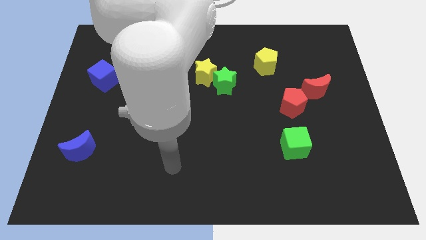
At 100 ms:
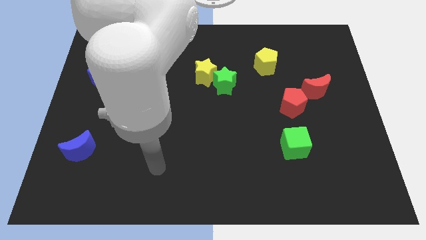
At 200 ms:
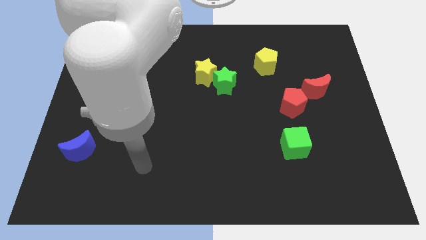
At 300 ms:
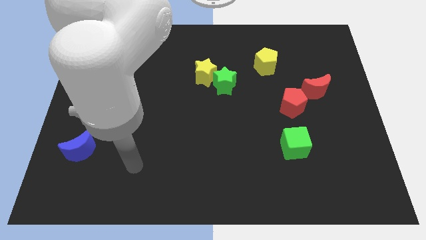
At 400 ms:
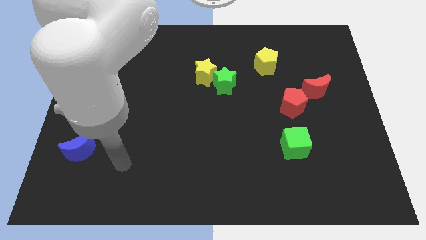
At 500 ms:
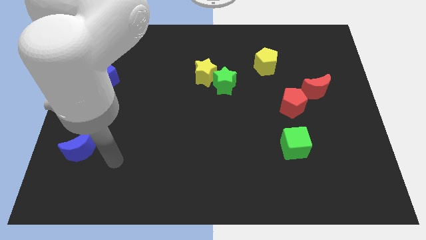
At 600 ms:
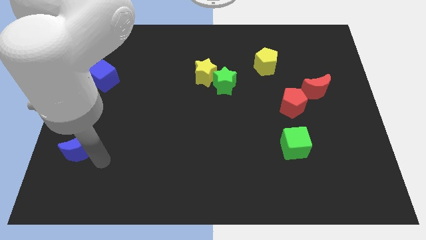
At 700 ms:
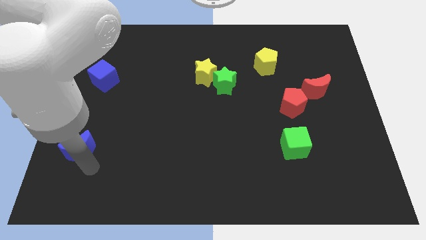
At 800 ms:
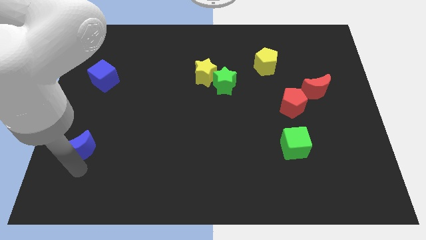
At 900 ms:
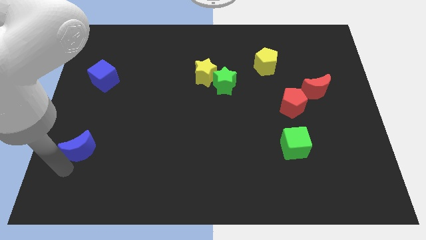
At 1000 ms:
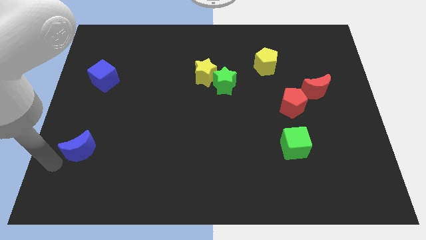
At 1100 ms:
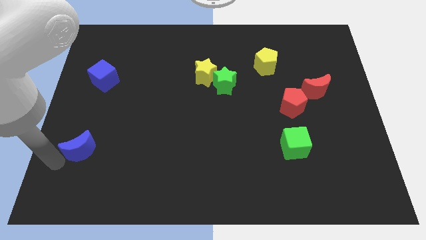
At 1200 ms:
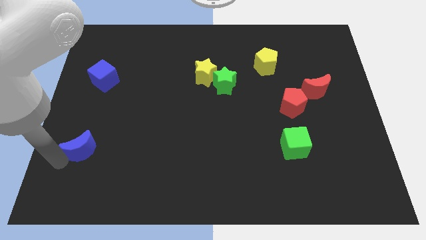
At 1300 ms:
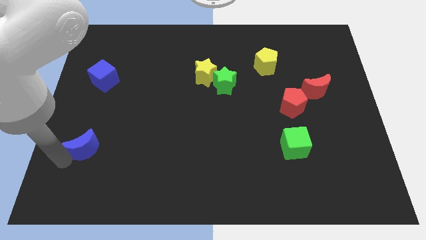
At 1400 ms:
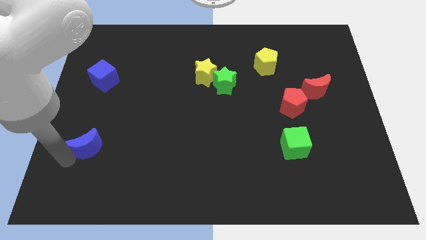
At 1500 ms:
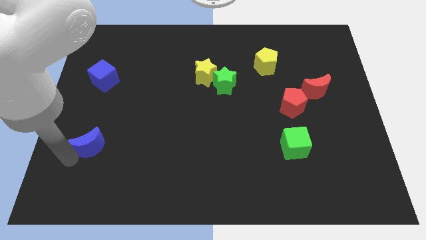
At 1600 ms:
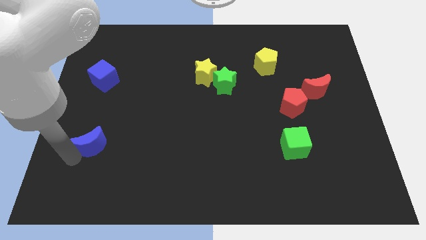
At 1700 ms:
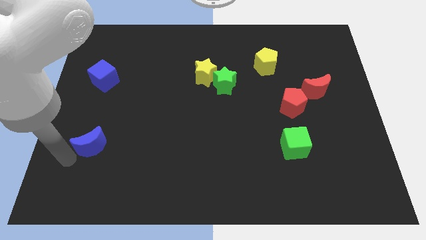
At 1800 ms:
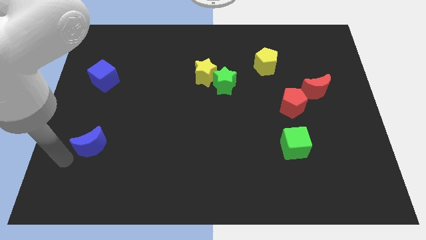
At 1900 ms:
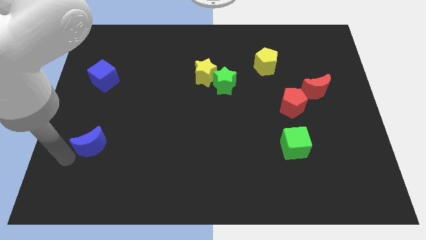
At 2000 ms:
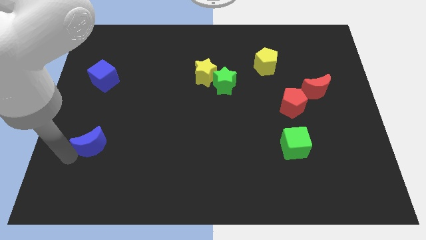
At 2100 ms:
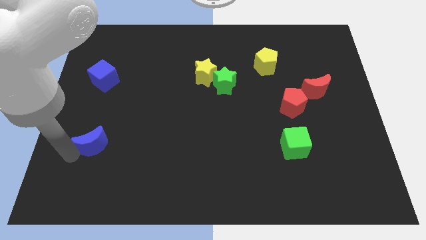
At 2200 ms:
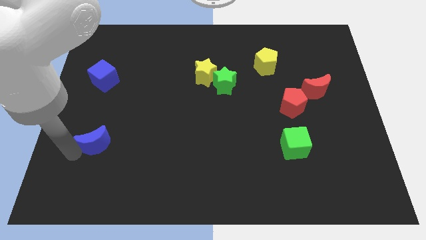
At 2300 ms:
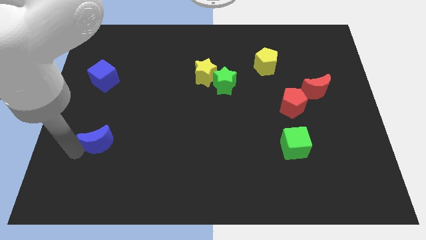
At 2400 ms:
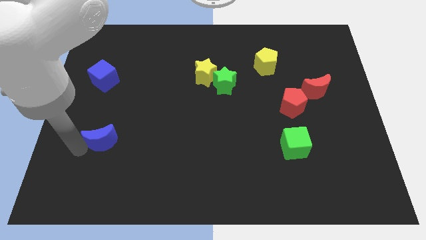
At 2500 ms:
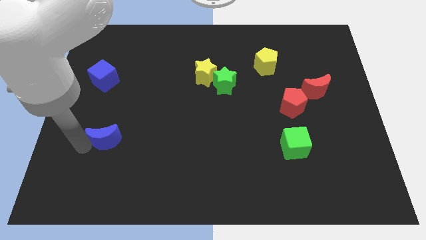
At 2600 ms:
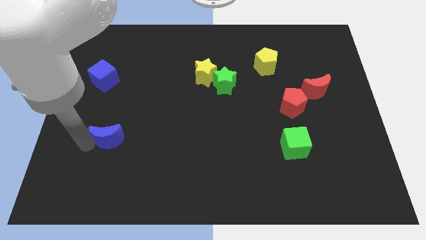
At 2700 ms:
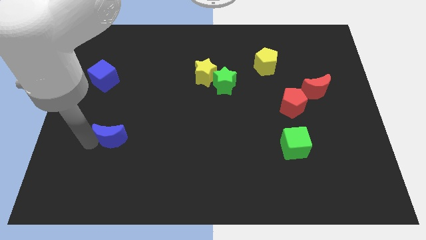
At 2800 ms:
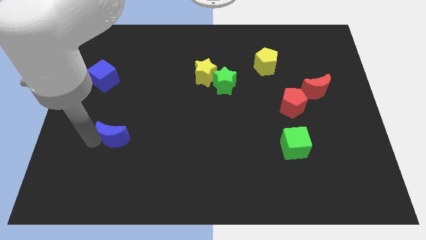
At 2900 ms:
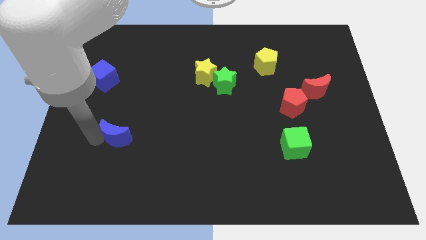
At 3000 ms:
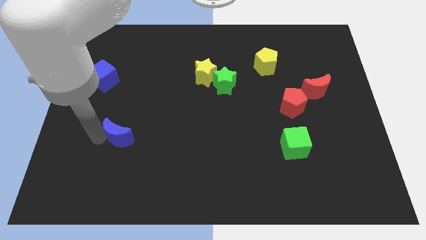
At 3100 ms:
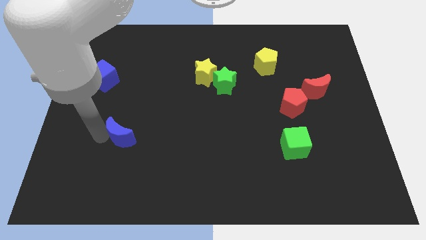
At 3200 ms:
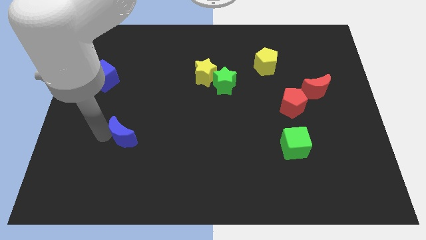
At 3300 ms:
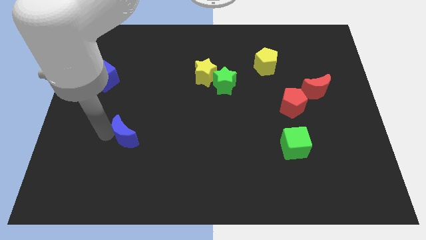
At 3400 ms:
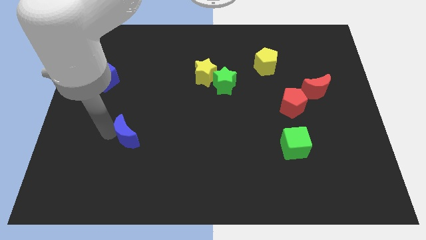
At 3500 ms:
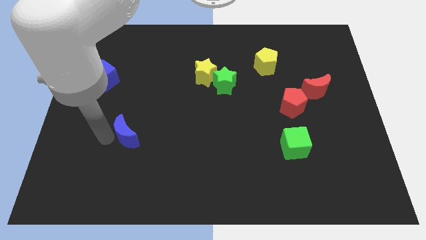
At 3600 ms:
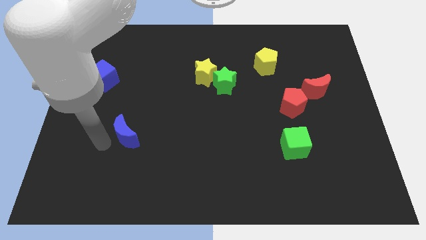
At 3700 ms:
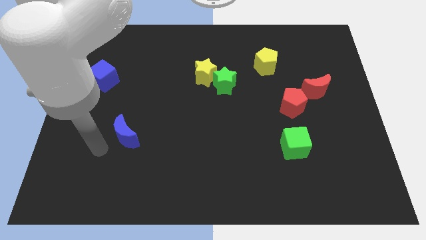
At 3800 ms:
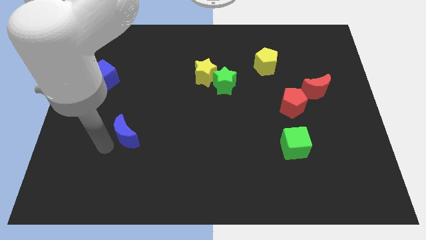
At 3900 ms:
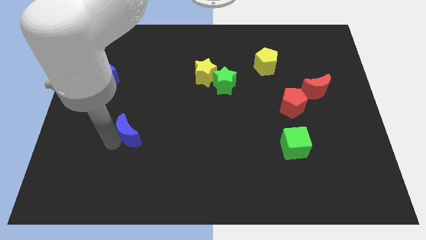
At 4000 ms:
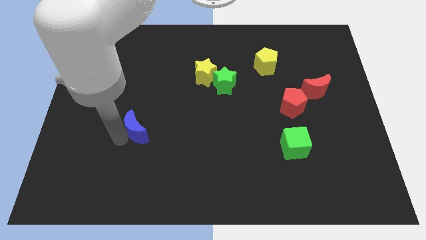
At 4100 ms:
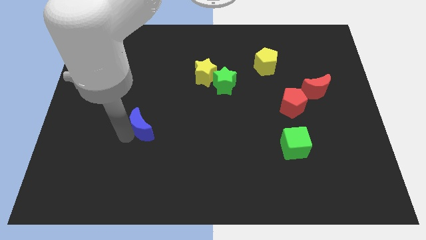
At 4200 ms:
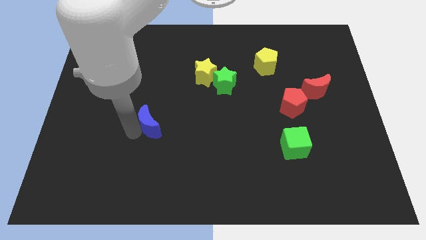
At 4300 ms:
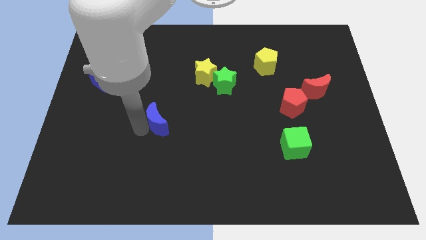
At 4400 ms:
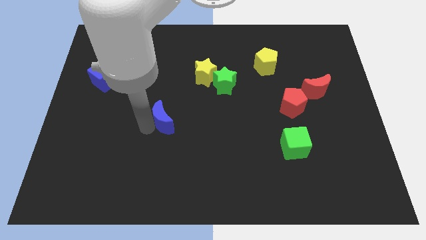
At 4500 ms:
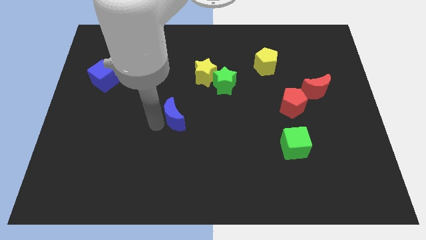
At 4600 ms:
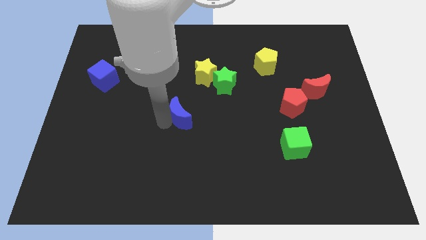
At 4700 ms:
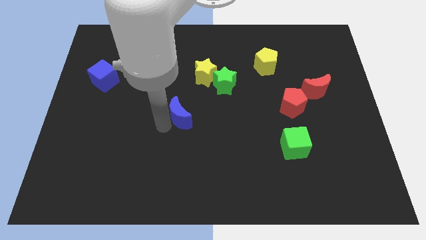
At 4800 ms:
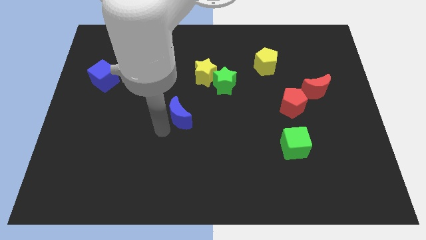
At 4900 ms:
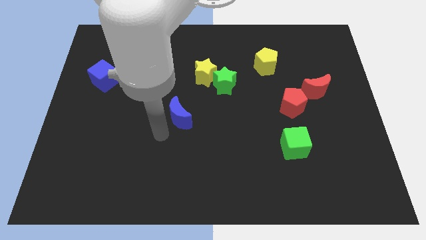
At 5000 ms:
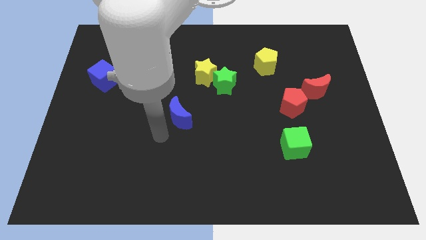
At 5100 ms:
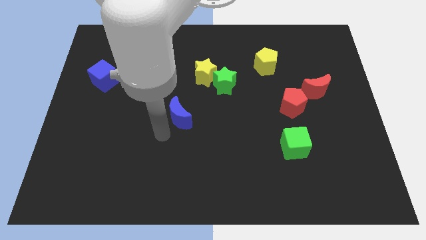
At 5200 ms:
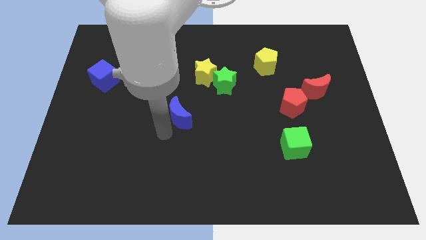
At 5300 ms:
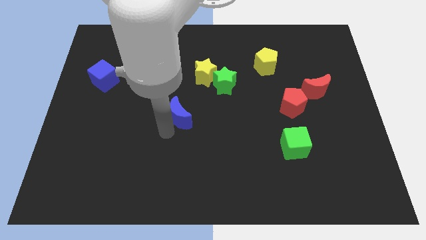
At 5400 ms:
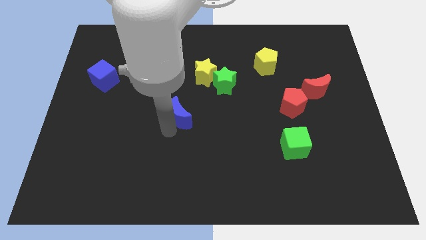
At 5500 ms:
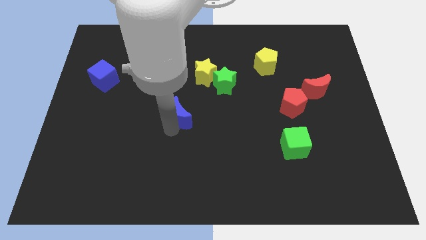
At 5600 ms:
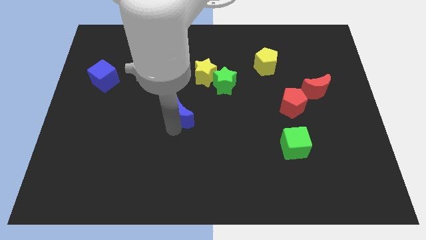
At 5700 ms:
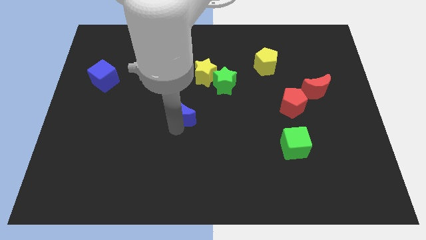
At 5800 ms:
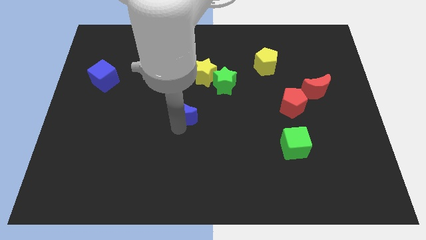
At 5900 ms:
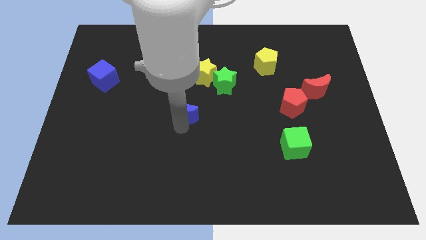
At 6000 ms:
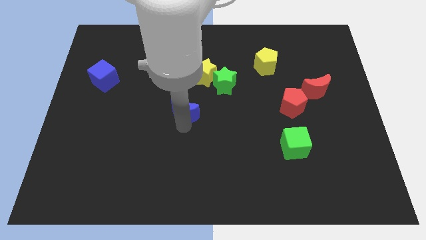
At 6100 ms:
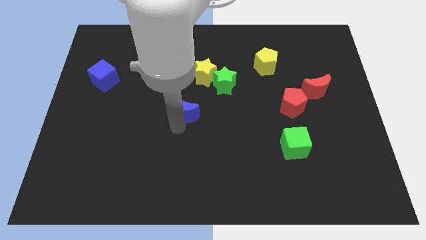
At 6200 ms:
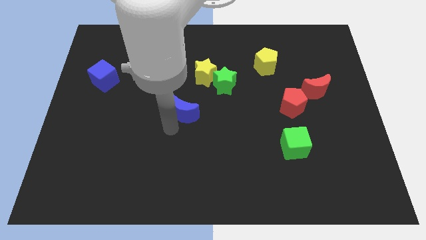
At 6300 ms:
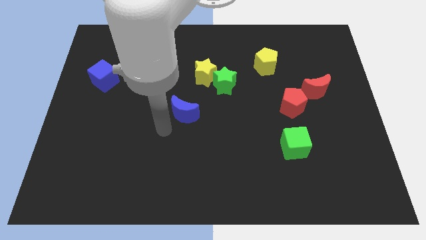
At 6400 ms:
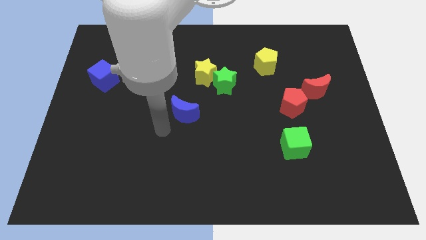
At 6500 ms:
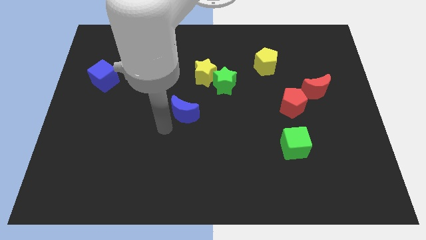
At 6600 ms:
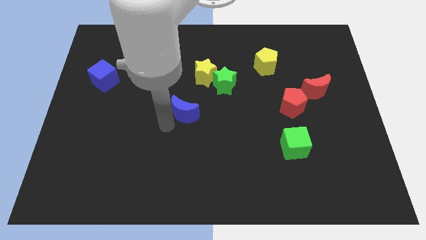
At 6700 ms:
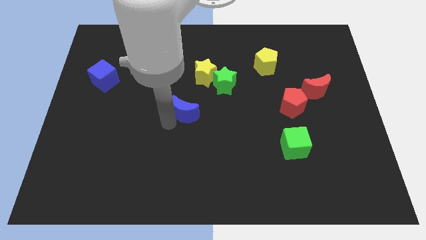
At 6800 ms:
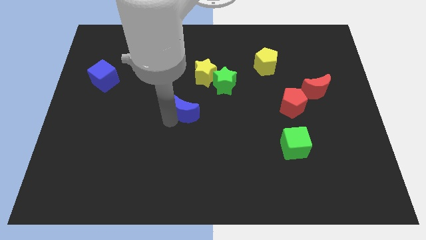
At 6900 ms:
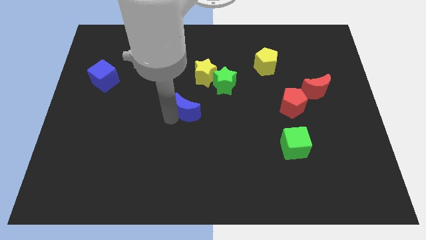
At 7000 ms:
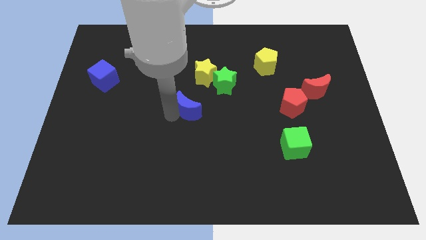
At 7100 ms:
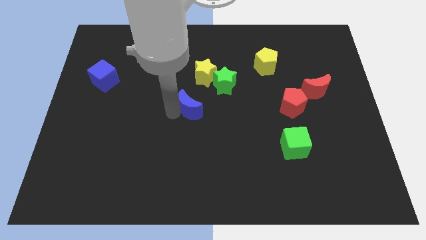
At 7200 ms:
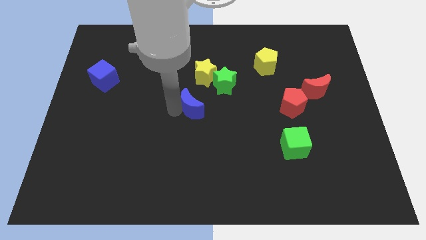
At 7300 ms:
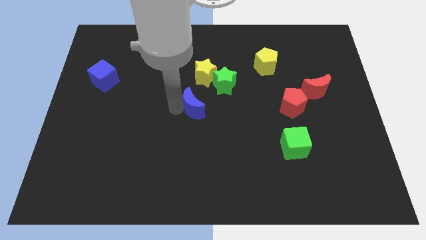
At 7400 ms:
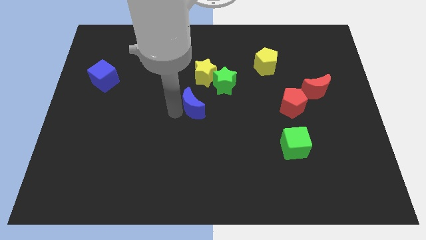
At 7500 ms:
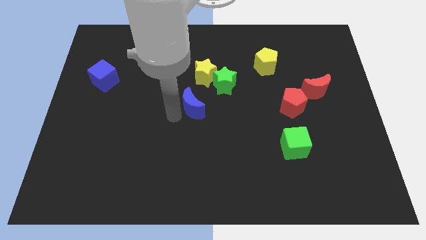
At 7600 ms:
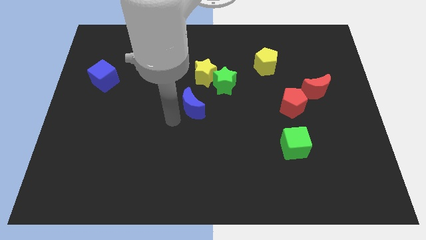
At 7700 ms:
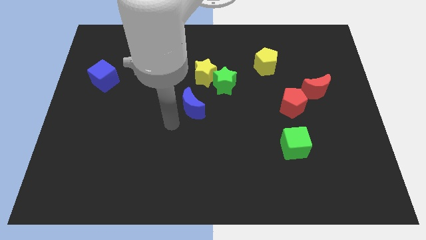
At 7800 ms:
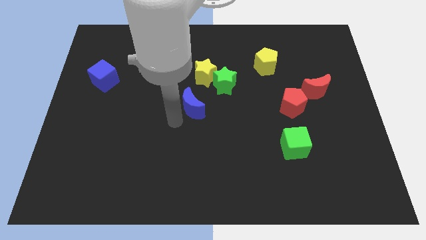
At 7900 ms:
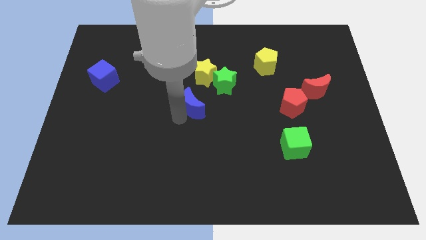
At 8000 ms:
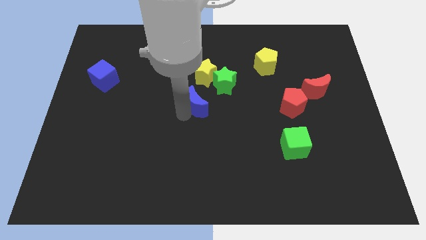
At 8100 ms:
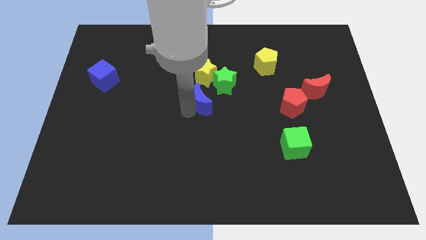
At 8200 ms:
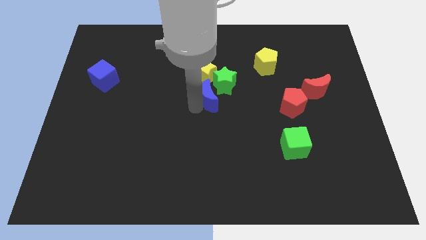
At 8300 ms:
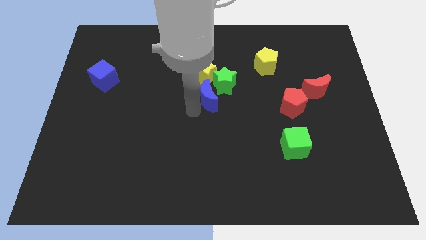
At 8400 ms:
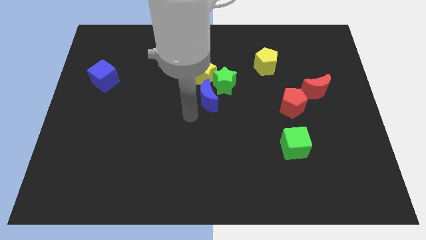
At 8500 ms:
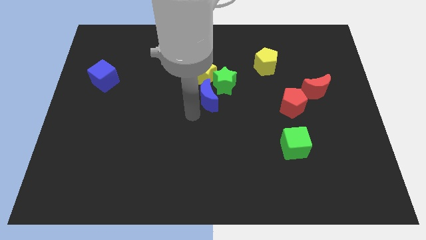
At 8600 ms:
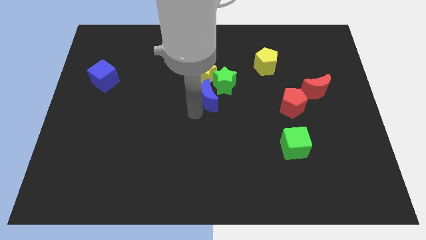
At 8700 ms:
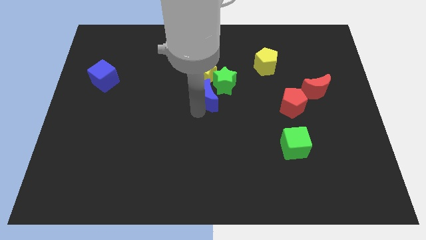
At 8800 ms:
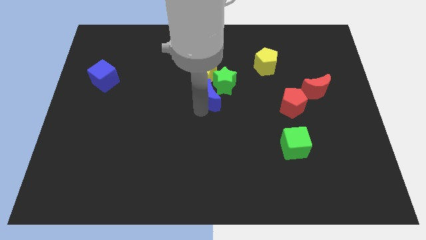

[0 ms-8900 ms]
push the blue moon to the green star
